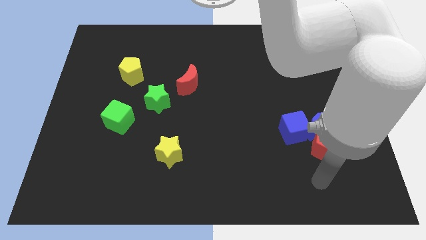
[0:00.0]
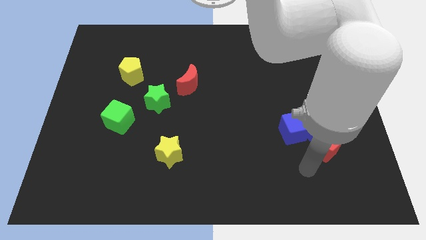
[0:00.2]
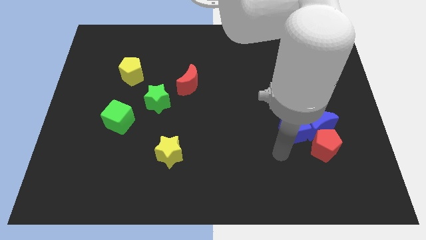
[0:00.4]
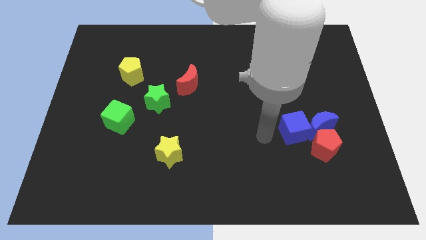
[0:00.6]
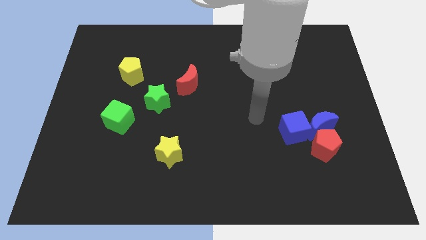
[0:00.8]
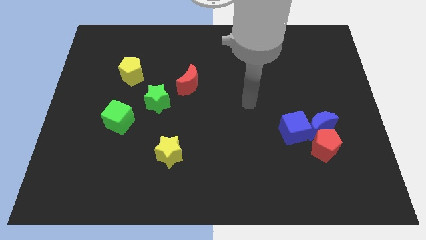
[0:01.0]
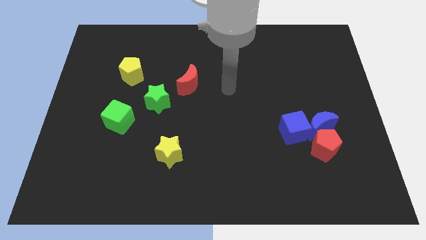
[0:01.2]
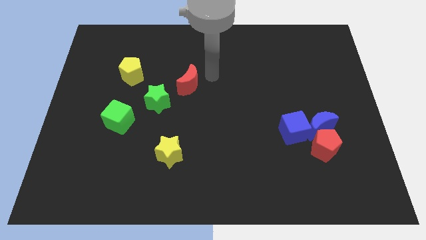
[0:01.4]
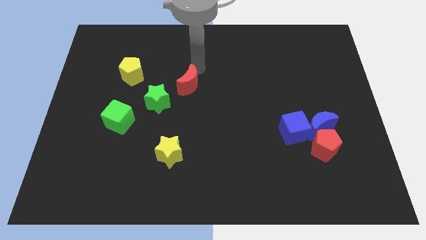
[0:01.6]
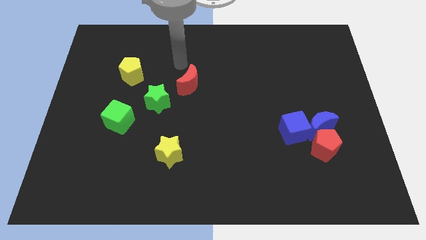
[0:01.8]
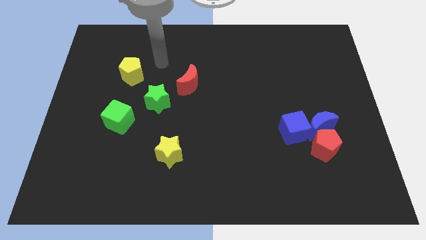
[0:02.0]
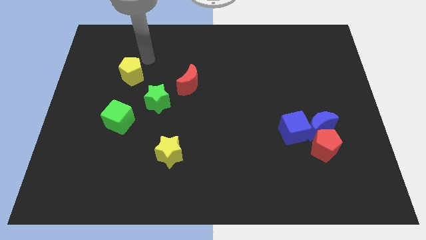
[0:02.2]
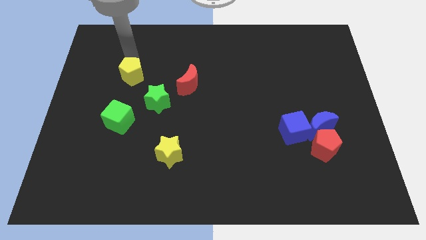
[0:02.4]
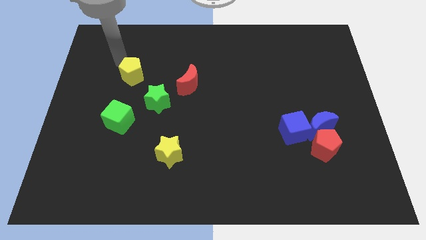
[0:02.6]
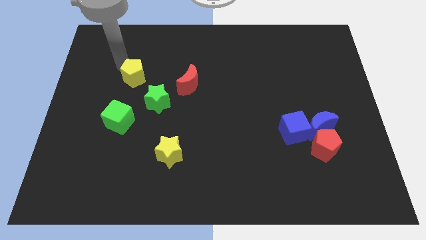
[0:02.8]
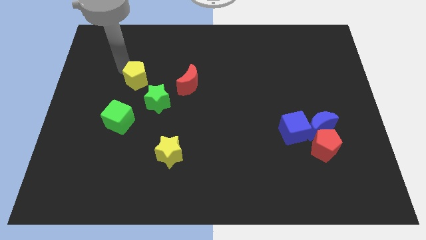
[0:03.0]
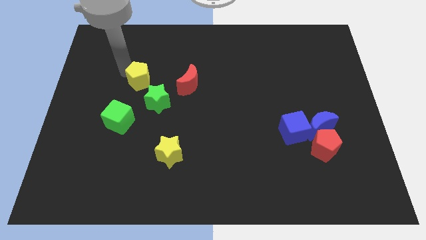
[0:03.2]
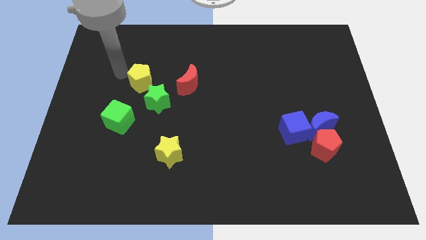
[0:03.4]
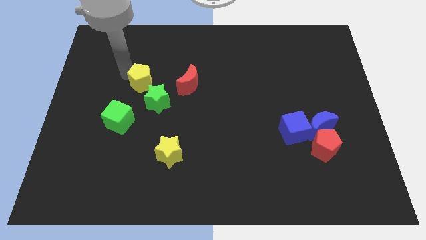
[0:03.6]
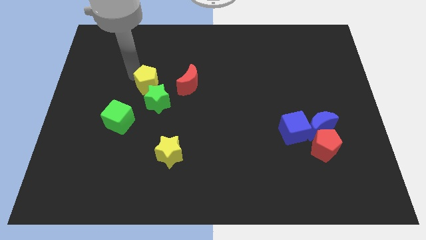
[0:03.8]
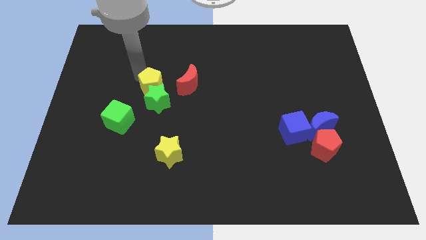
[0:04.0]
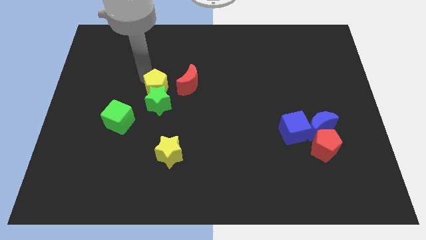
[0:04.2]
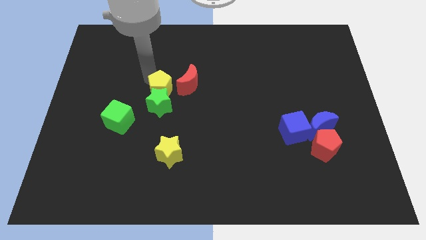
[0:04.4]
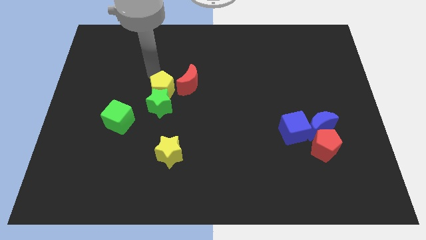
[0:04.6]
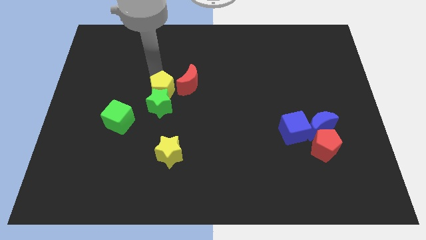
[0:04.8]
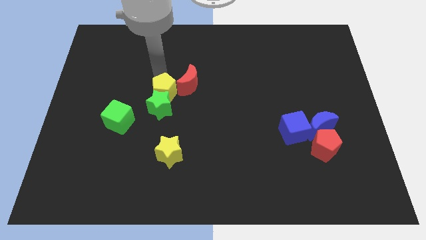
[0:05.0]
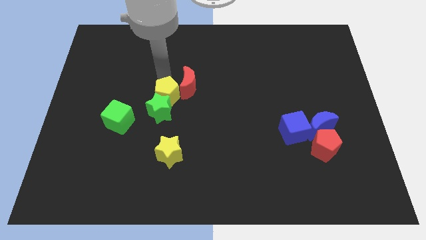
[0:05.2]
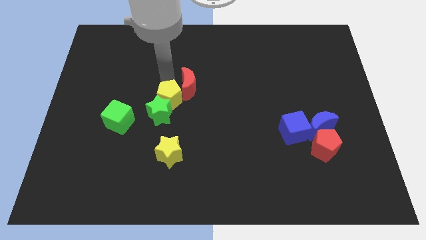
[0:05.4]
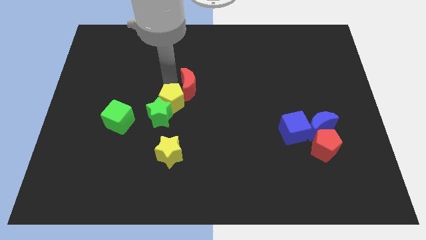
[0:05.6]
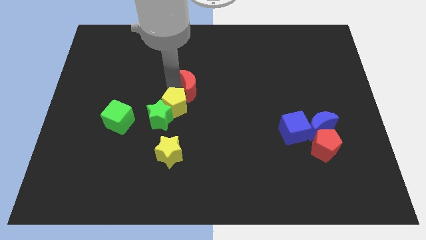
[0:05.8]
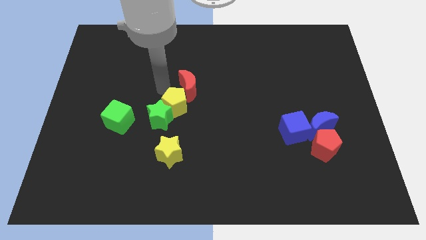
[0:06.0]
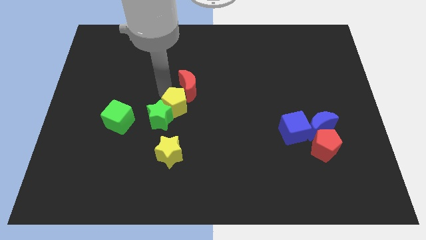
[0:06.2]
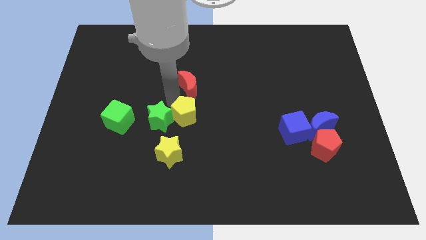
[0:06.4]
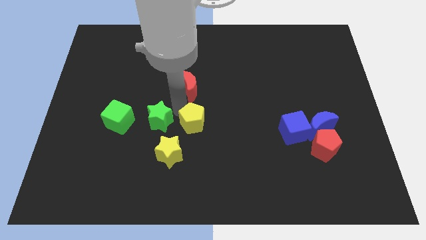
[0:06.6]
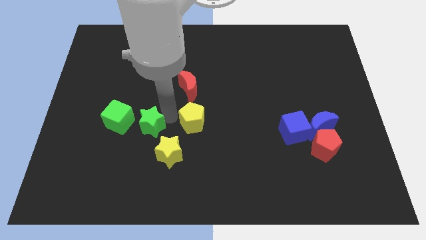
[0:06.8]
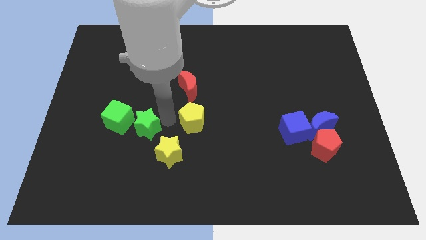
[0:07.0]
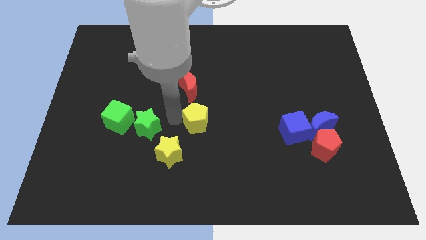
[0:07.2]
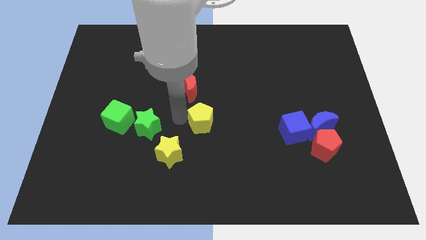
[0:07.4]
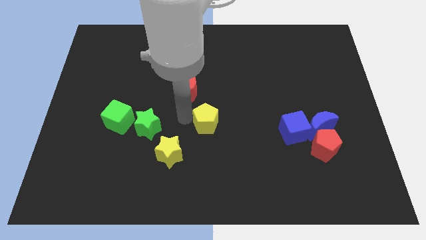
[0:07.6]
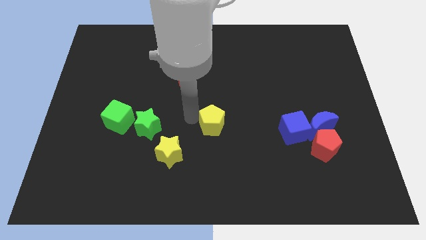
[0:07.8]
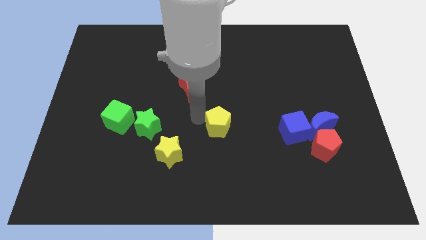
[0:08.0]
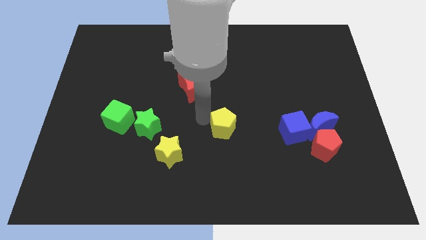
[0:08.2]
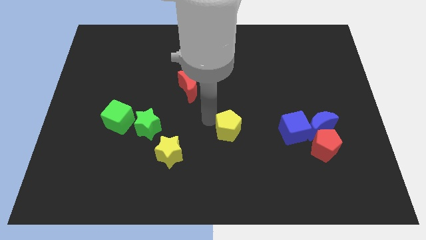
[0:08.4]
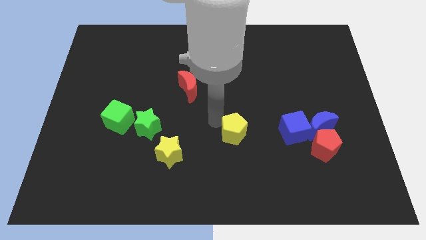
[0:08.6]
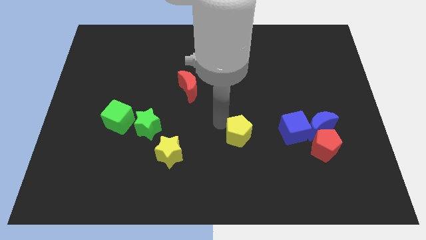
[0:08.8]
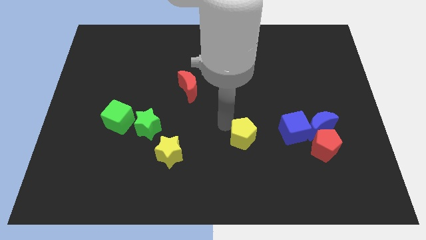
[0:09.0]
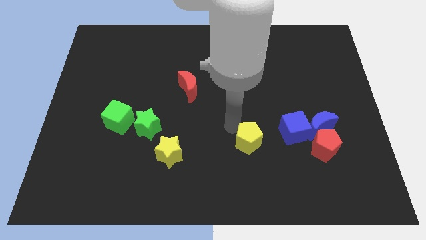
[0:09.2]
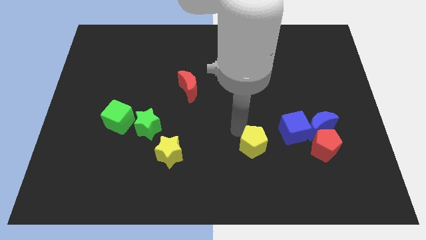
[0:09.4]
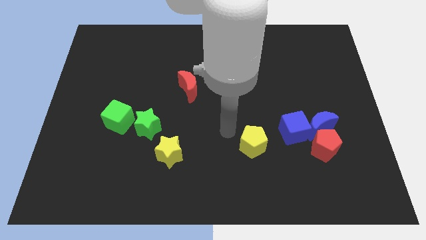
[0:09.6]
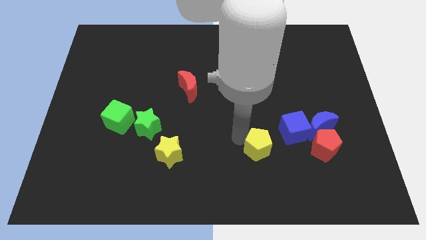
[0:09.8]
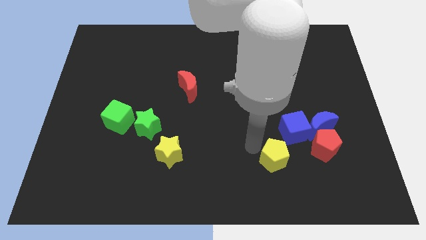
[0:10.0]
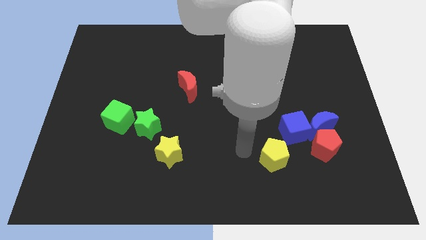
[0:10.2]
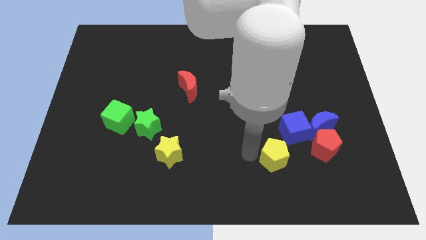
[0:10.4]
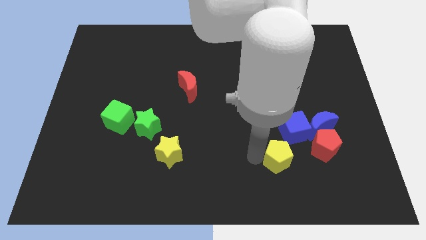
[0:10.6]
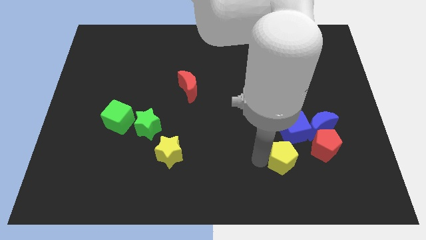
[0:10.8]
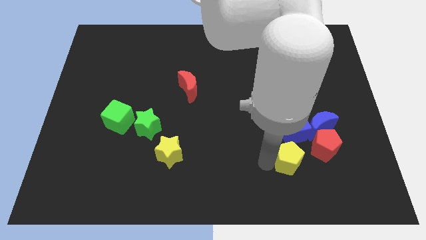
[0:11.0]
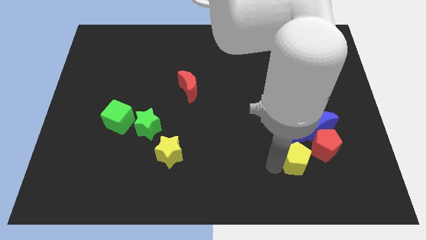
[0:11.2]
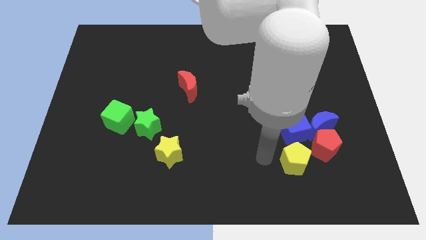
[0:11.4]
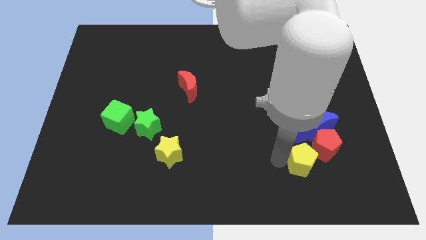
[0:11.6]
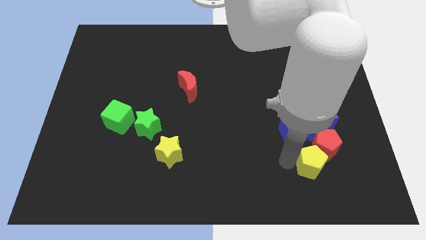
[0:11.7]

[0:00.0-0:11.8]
push the yellow pentagon below the blue moon

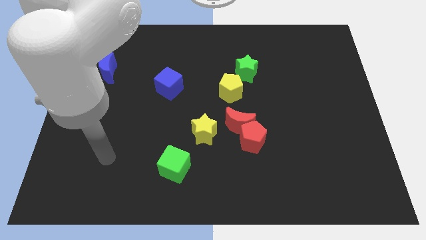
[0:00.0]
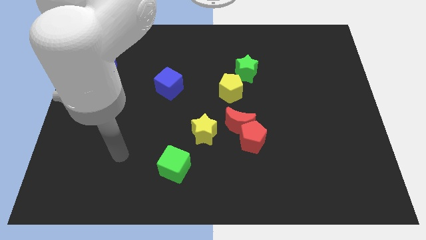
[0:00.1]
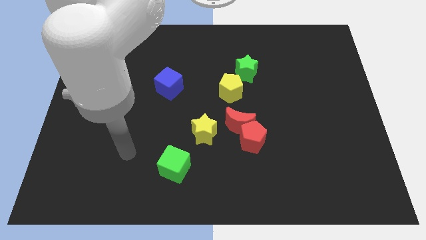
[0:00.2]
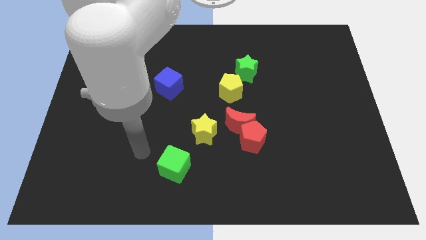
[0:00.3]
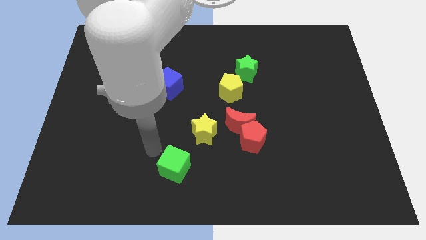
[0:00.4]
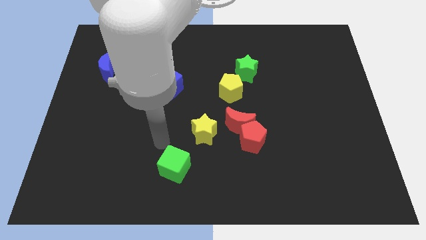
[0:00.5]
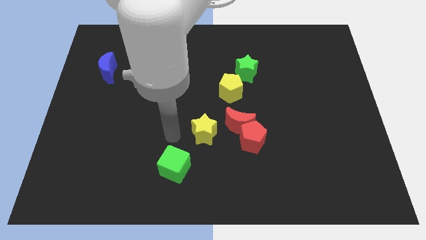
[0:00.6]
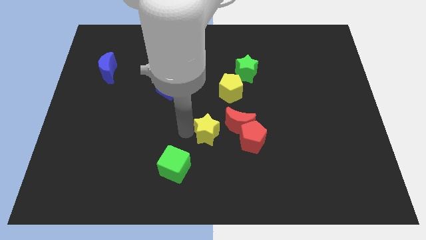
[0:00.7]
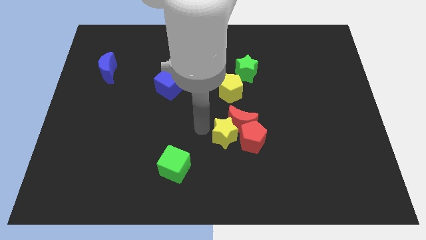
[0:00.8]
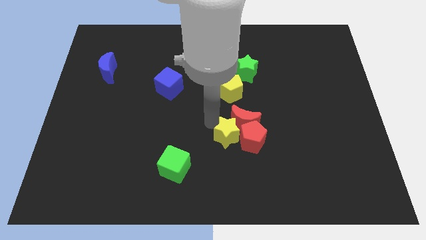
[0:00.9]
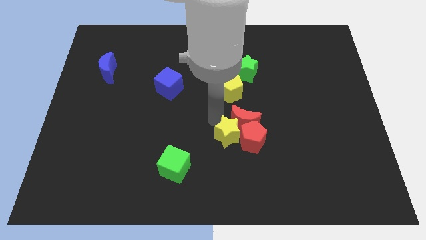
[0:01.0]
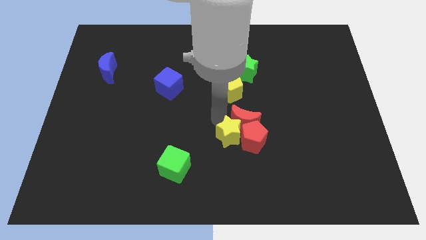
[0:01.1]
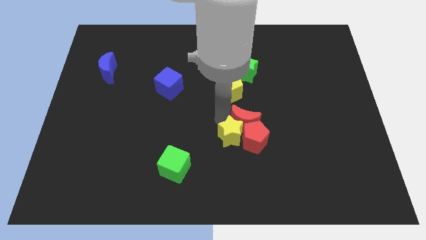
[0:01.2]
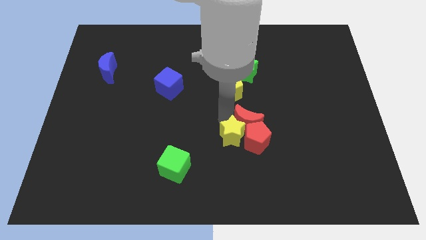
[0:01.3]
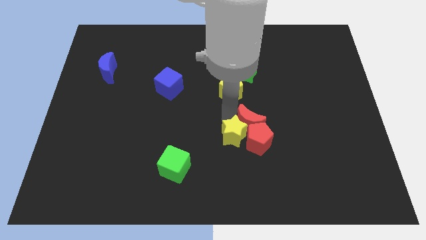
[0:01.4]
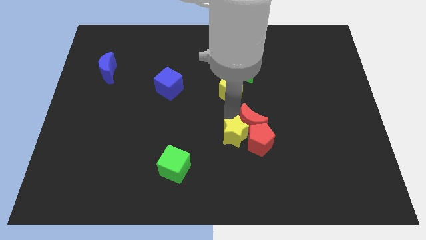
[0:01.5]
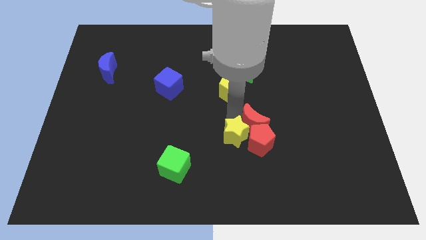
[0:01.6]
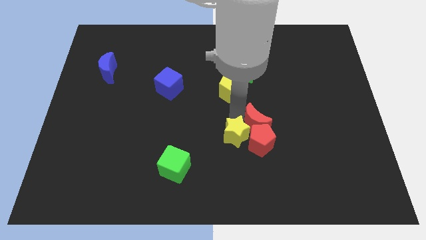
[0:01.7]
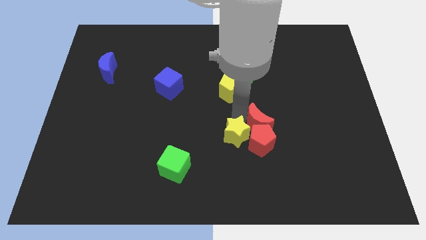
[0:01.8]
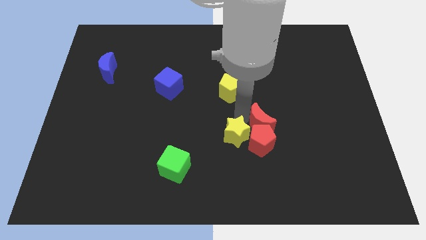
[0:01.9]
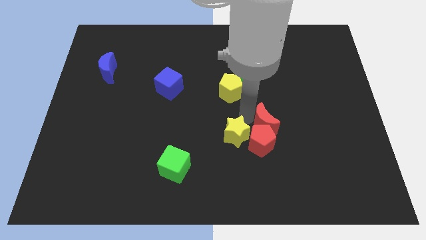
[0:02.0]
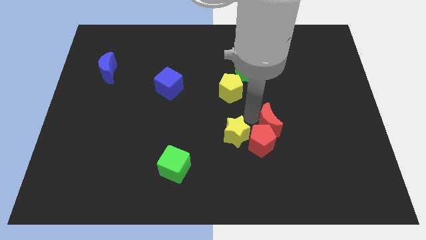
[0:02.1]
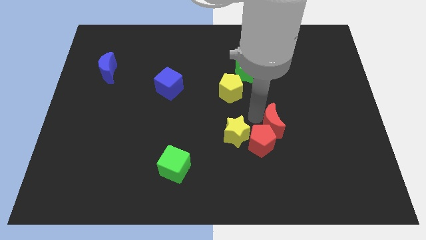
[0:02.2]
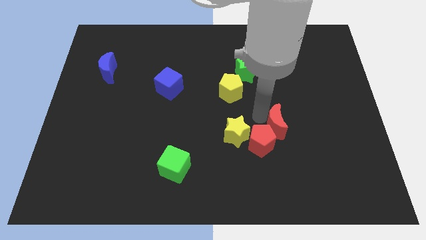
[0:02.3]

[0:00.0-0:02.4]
slide the red moon just right of the red pentagon
